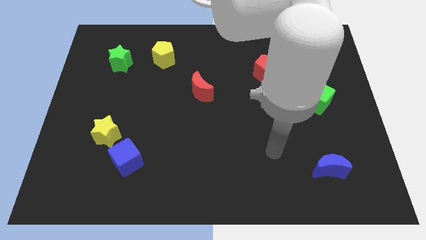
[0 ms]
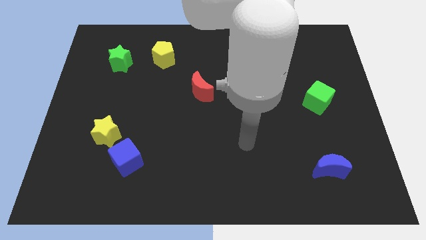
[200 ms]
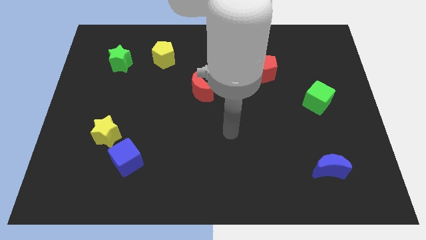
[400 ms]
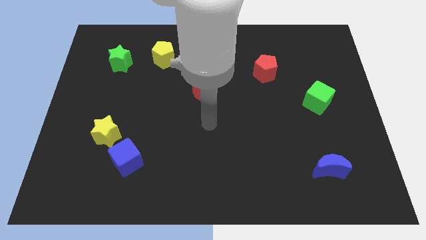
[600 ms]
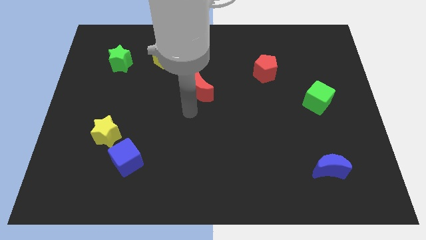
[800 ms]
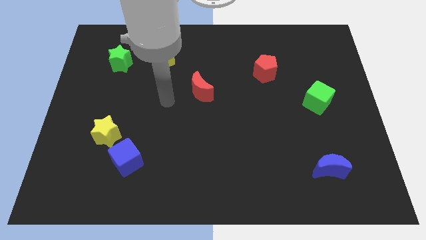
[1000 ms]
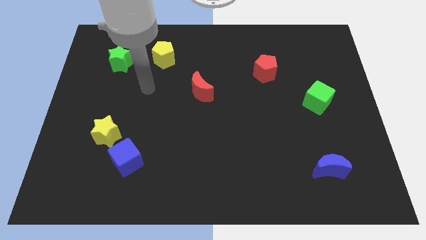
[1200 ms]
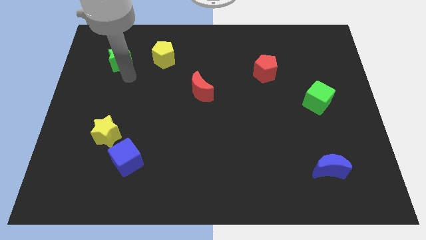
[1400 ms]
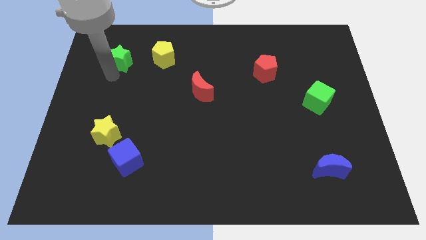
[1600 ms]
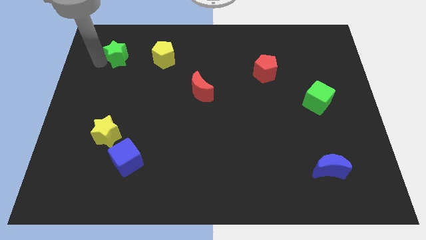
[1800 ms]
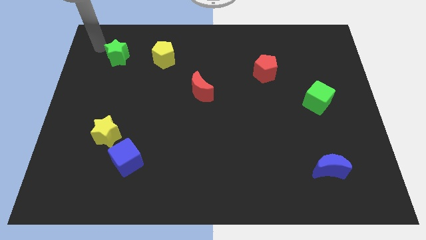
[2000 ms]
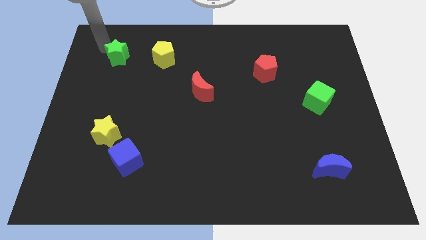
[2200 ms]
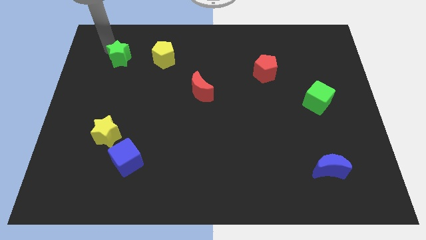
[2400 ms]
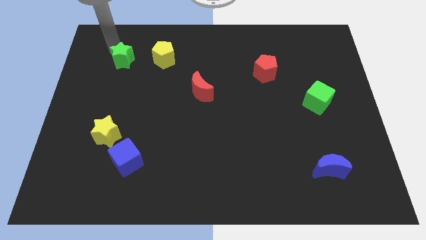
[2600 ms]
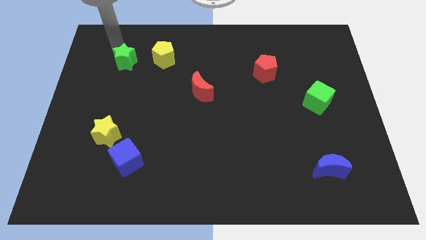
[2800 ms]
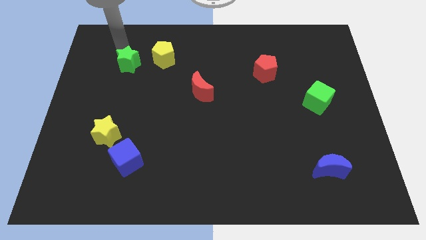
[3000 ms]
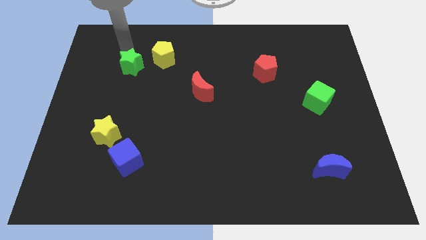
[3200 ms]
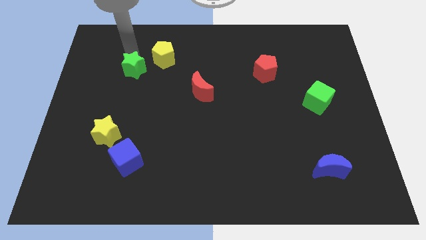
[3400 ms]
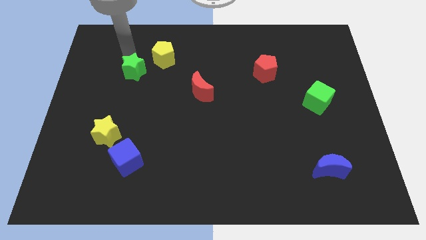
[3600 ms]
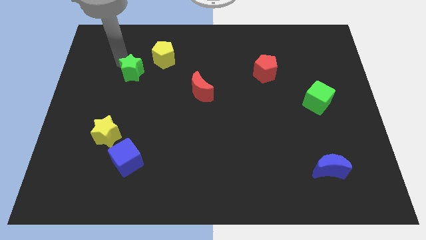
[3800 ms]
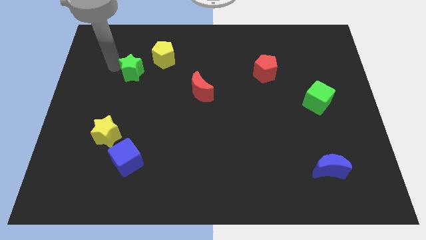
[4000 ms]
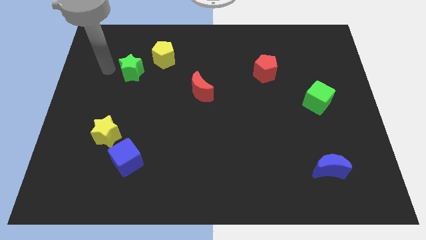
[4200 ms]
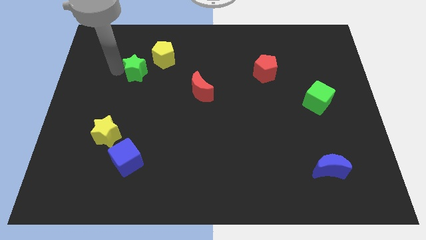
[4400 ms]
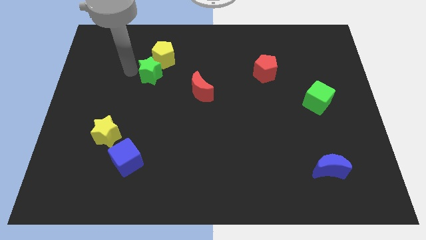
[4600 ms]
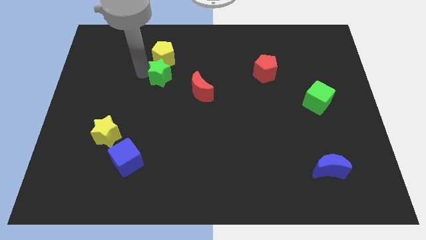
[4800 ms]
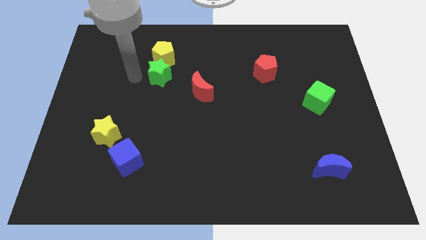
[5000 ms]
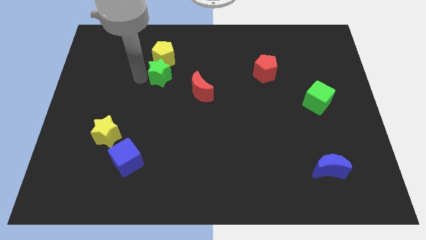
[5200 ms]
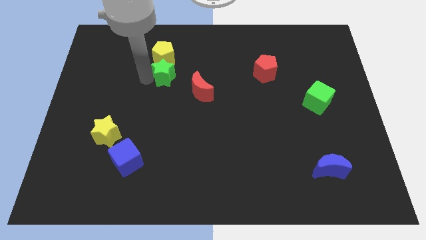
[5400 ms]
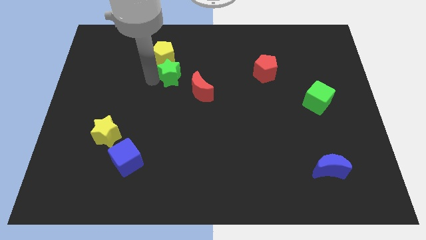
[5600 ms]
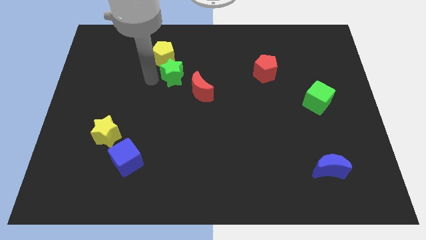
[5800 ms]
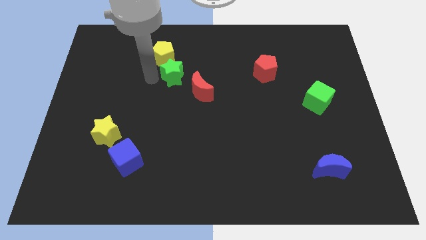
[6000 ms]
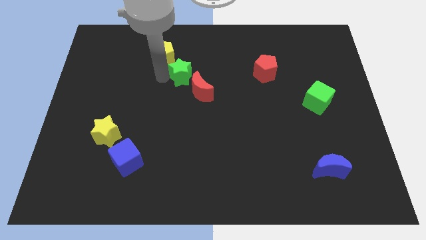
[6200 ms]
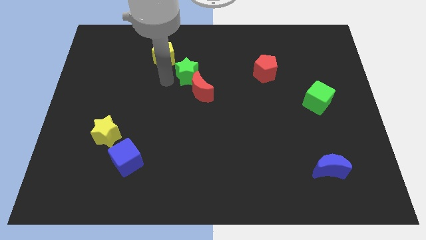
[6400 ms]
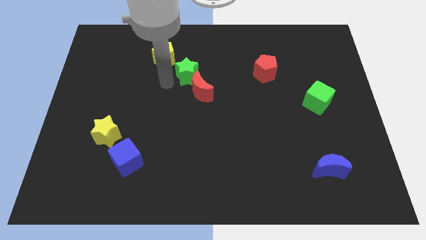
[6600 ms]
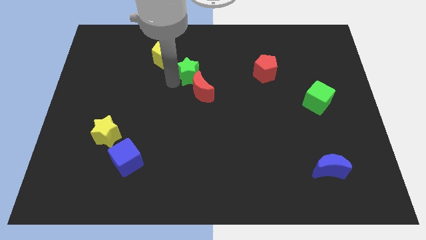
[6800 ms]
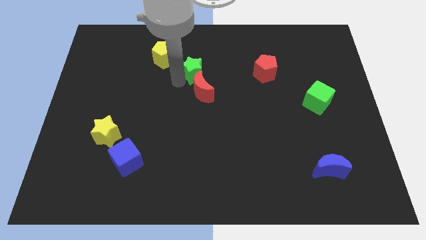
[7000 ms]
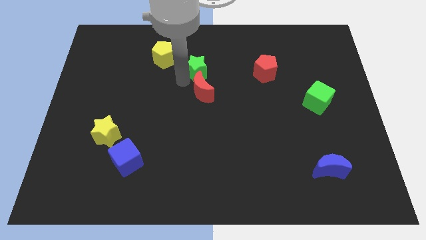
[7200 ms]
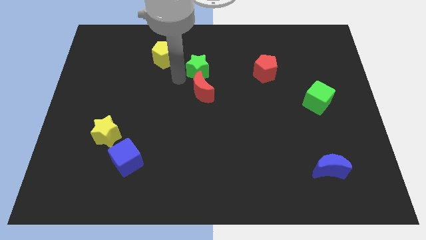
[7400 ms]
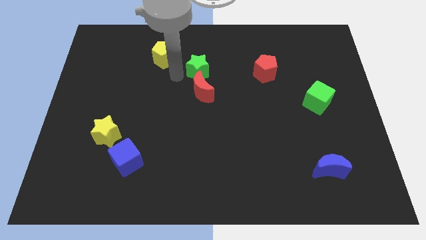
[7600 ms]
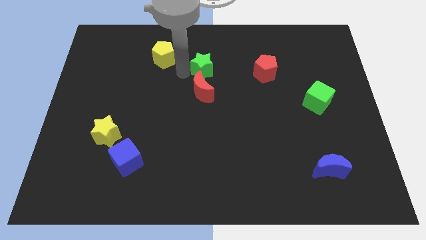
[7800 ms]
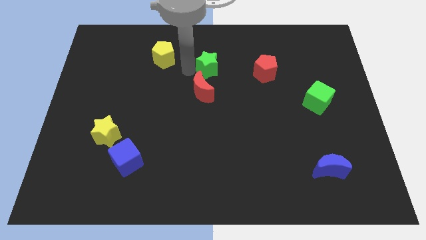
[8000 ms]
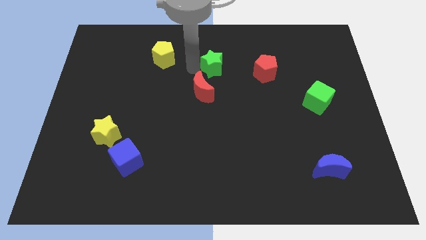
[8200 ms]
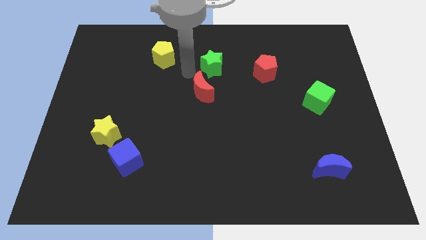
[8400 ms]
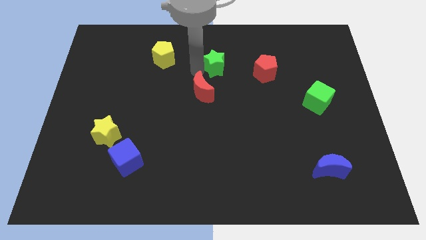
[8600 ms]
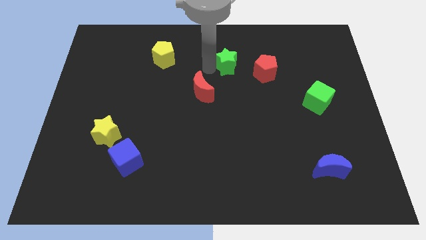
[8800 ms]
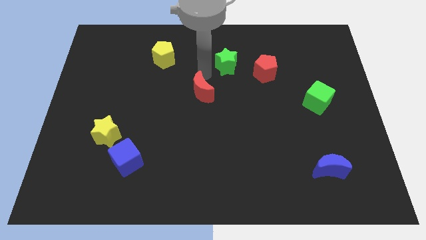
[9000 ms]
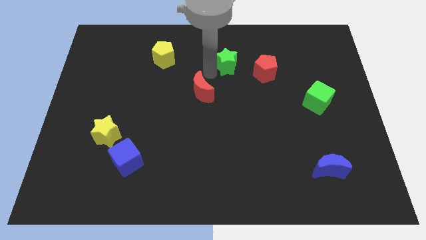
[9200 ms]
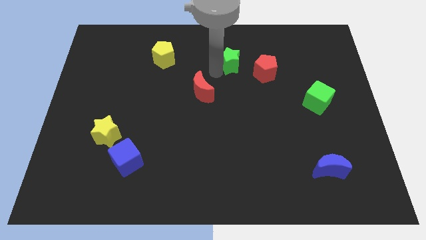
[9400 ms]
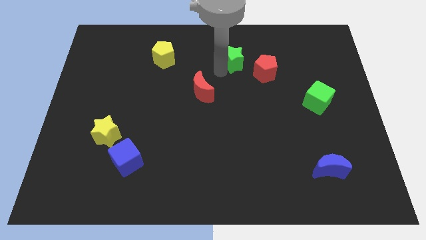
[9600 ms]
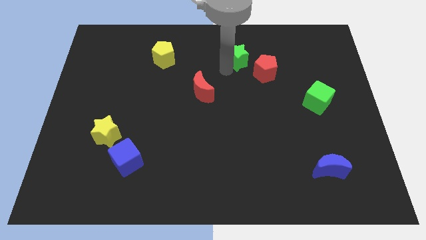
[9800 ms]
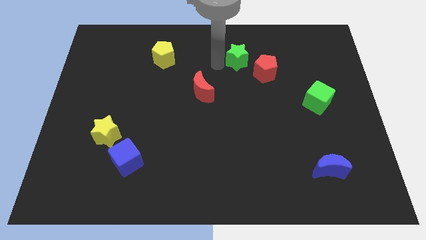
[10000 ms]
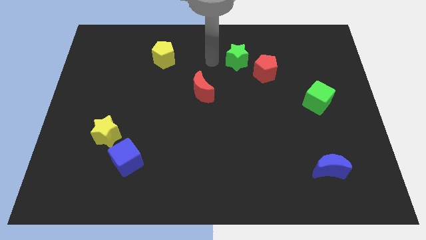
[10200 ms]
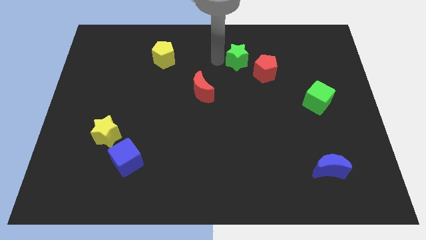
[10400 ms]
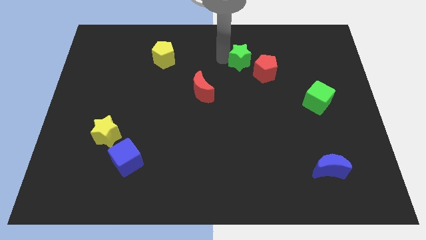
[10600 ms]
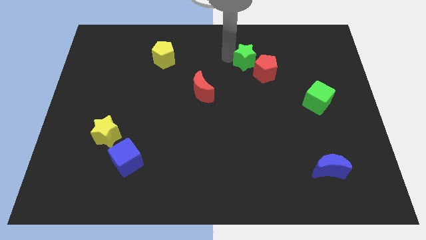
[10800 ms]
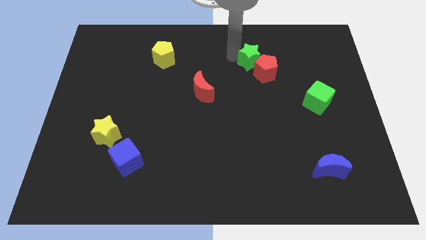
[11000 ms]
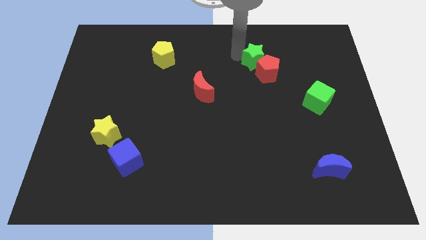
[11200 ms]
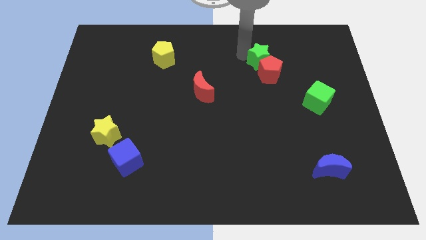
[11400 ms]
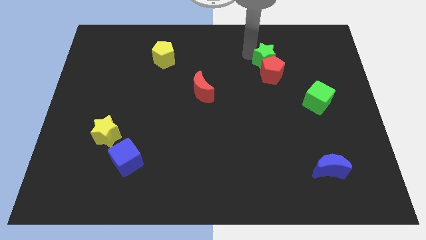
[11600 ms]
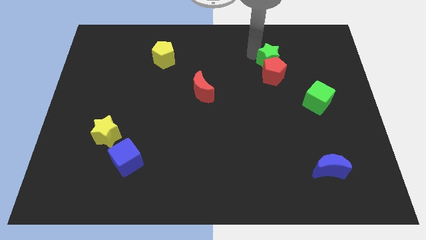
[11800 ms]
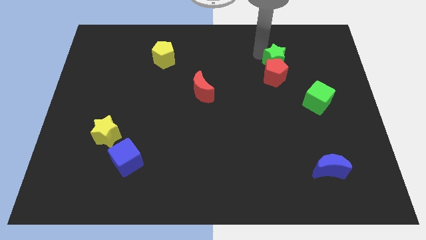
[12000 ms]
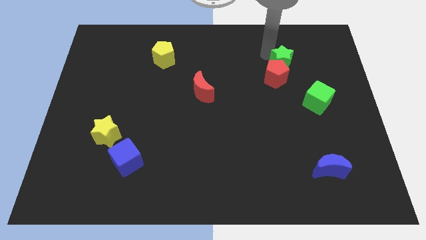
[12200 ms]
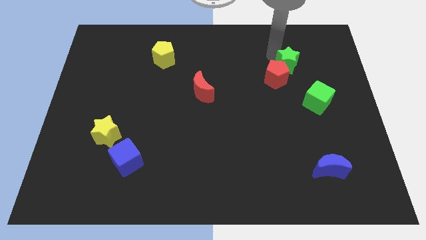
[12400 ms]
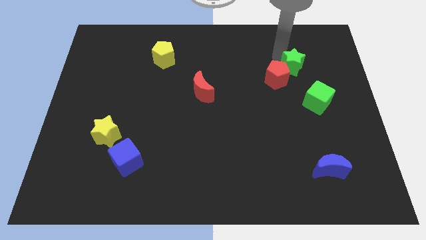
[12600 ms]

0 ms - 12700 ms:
slide the green star to the top side of the green cube
